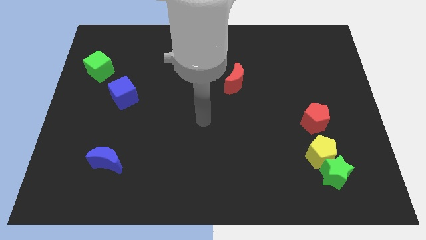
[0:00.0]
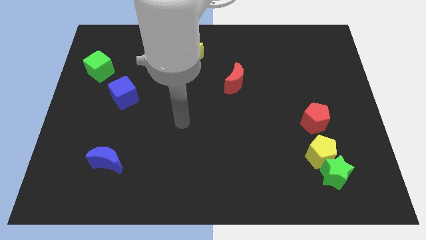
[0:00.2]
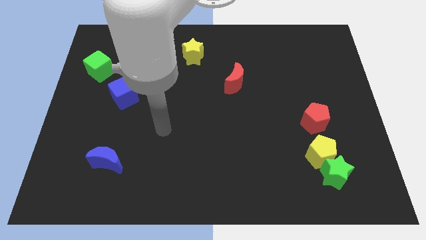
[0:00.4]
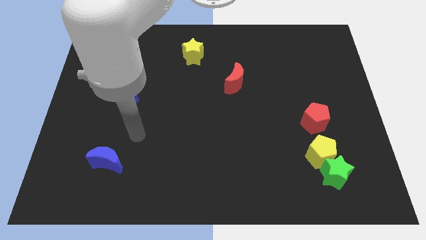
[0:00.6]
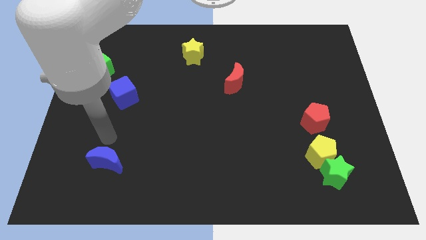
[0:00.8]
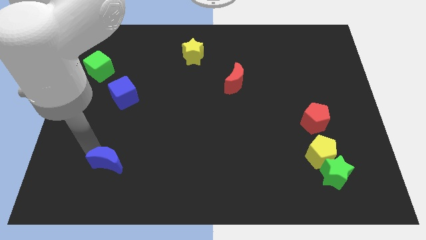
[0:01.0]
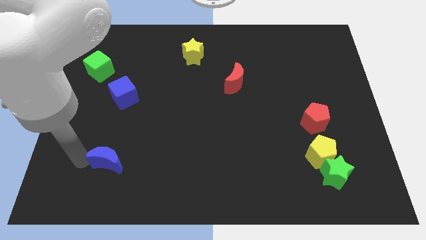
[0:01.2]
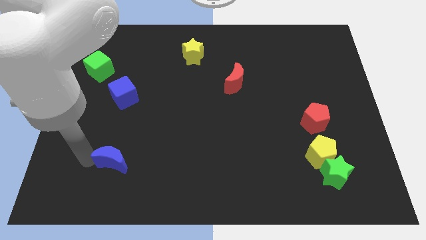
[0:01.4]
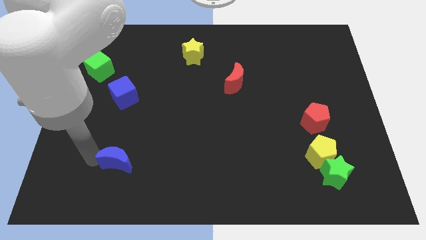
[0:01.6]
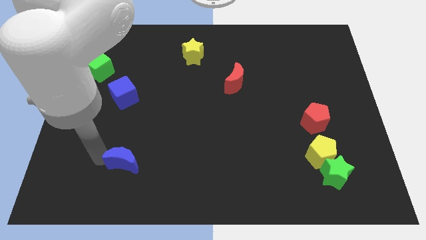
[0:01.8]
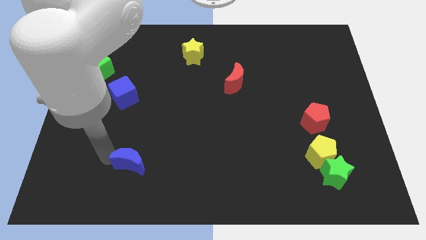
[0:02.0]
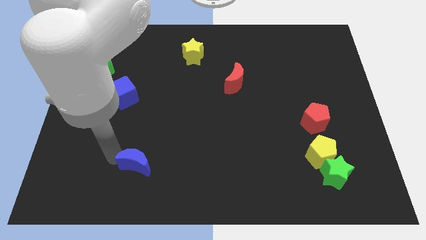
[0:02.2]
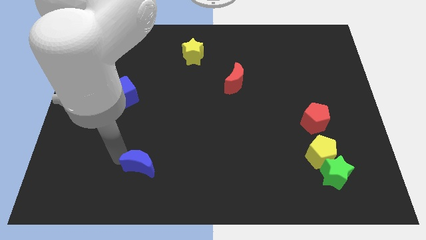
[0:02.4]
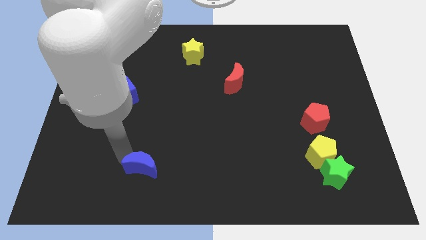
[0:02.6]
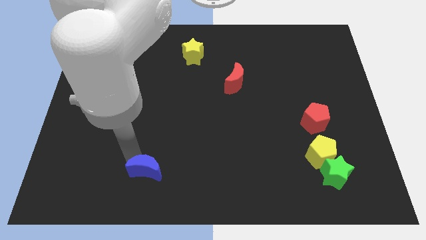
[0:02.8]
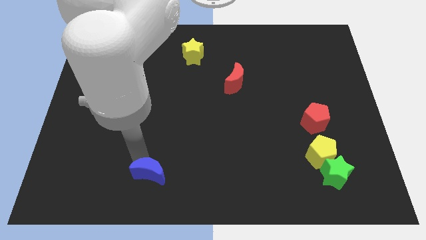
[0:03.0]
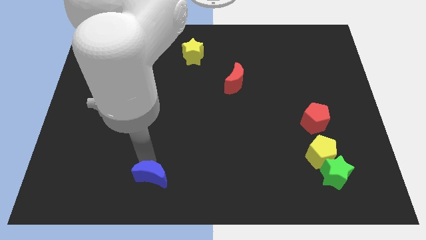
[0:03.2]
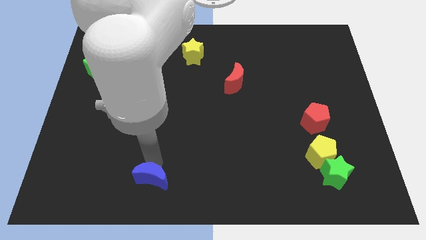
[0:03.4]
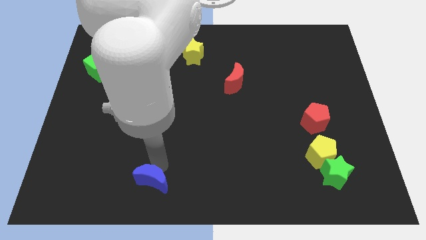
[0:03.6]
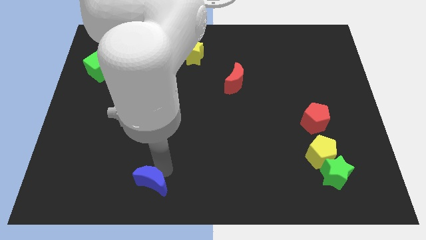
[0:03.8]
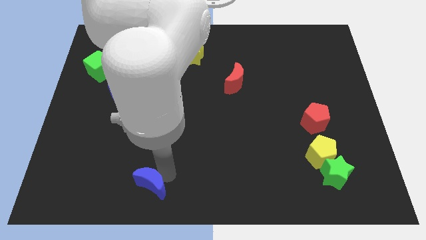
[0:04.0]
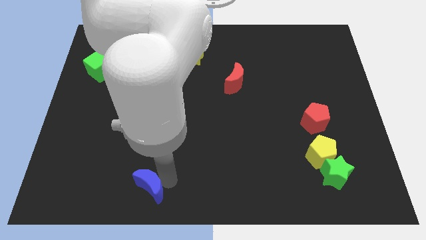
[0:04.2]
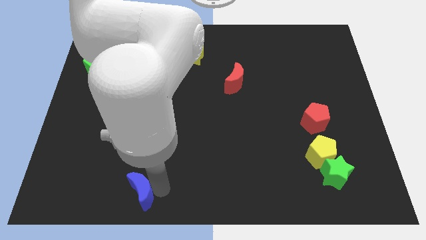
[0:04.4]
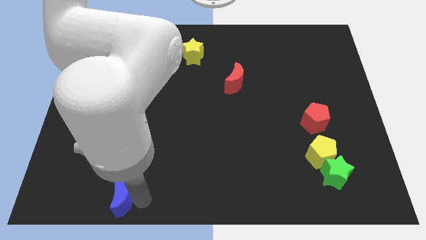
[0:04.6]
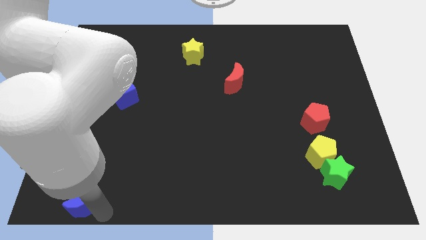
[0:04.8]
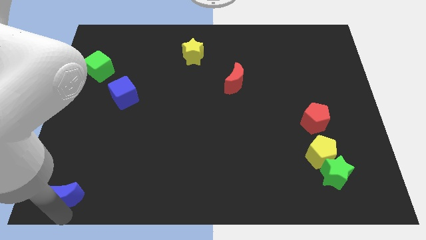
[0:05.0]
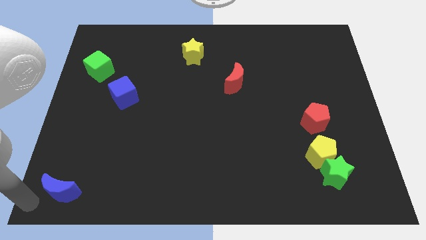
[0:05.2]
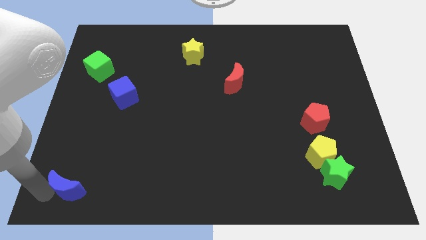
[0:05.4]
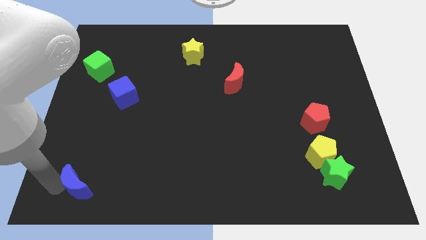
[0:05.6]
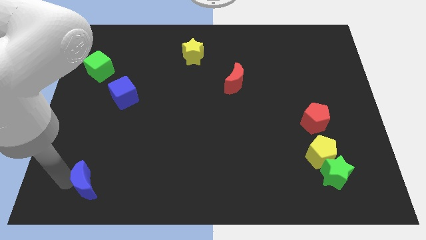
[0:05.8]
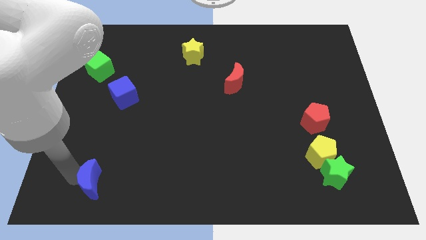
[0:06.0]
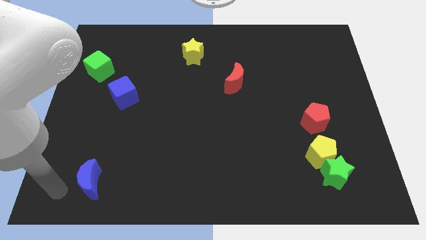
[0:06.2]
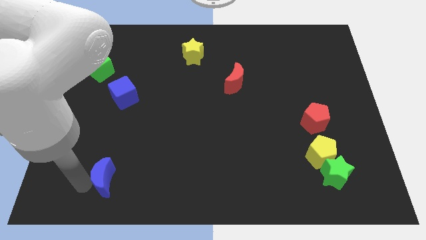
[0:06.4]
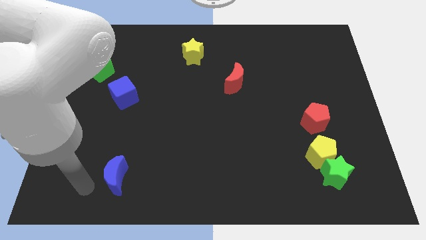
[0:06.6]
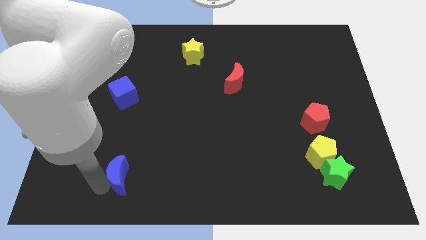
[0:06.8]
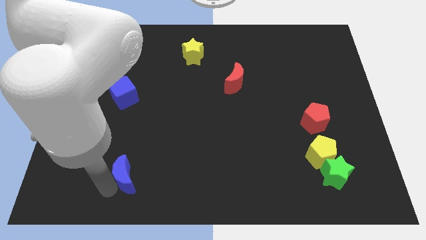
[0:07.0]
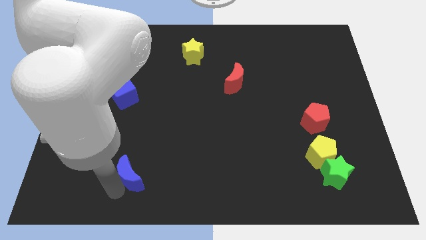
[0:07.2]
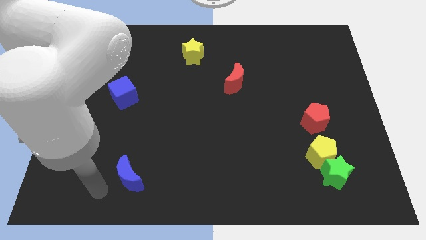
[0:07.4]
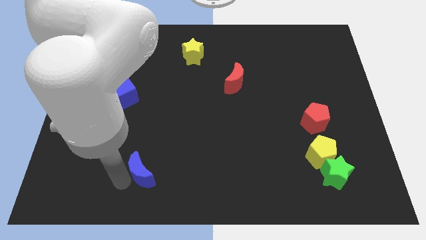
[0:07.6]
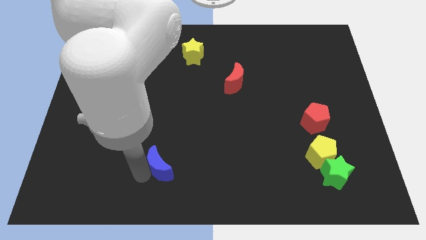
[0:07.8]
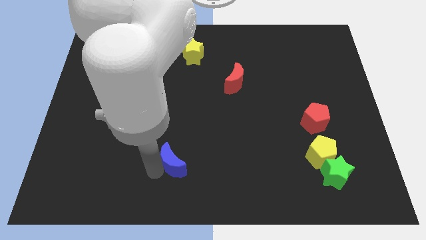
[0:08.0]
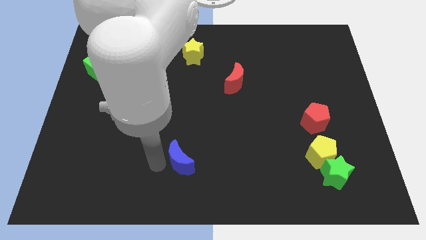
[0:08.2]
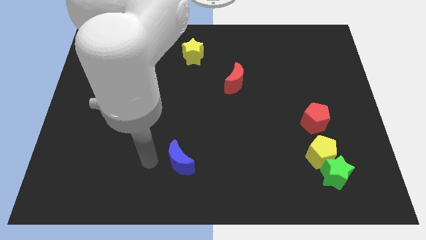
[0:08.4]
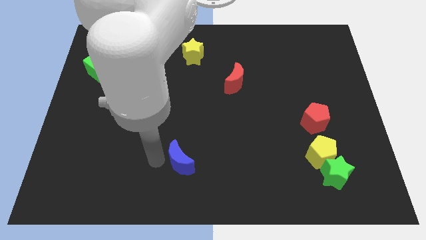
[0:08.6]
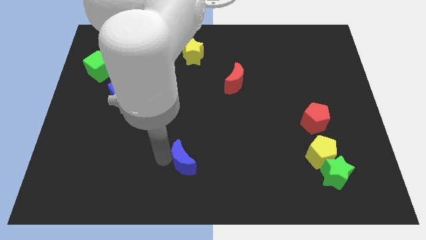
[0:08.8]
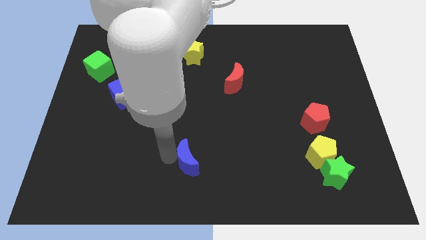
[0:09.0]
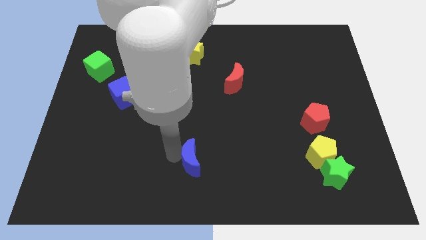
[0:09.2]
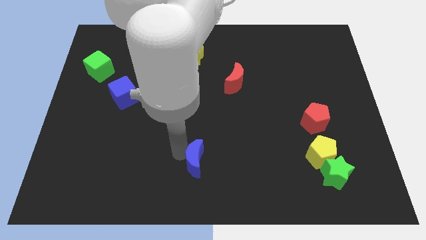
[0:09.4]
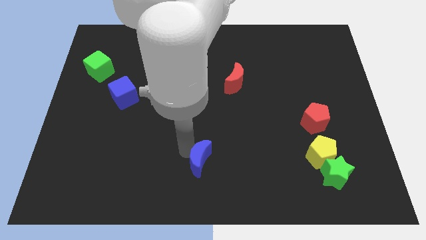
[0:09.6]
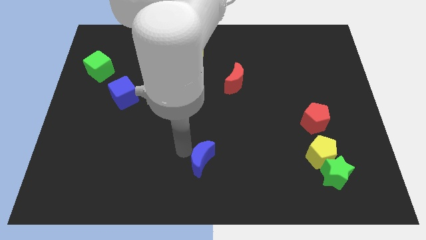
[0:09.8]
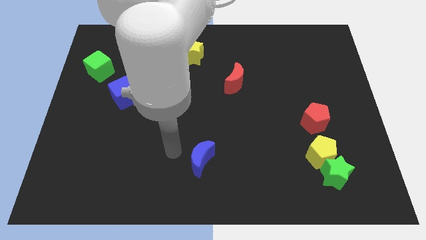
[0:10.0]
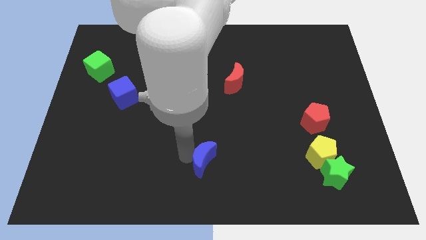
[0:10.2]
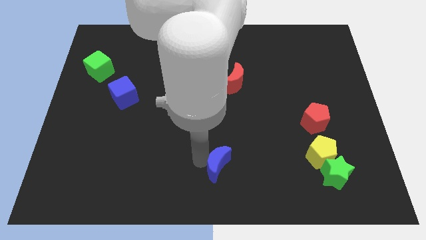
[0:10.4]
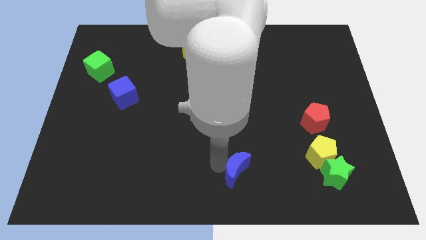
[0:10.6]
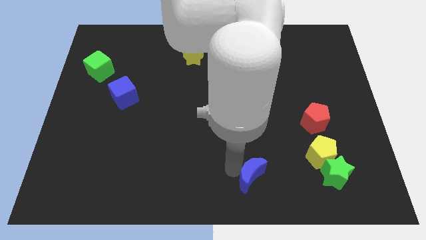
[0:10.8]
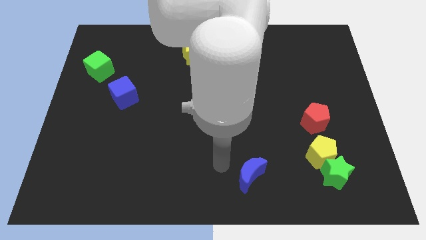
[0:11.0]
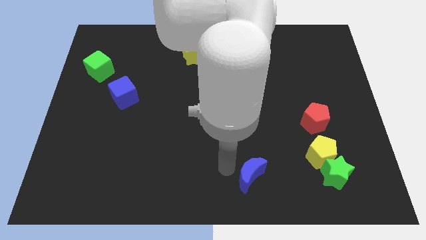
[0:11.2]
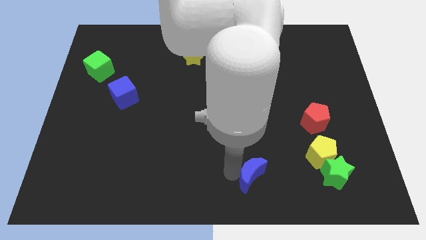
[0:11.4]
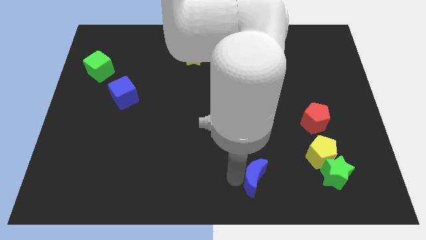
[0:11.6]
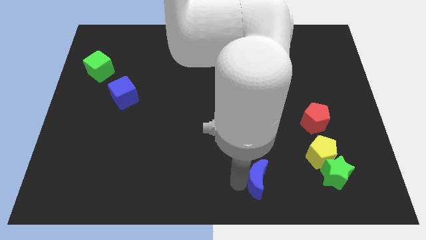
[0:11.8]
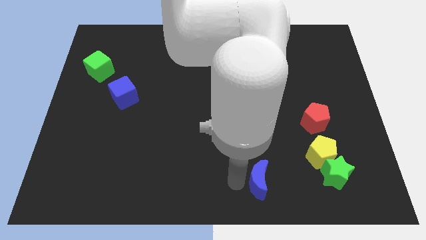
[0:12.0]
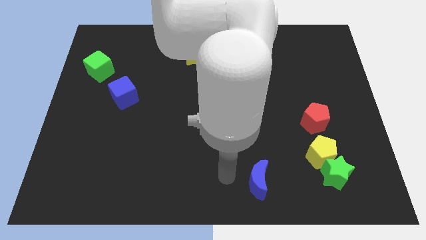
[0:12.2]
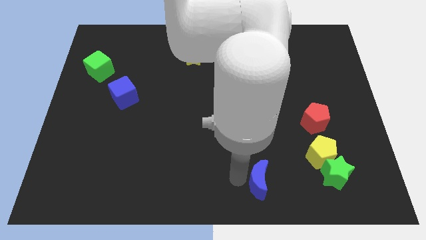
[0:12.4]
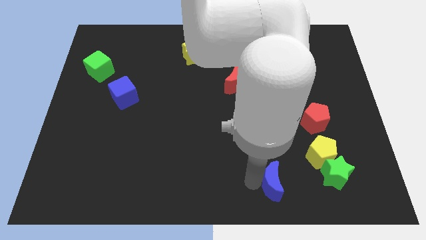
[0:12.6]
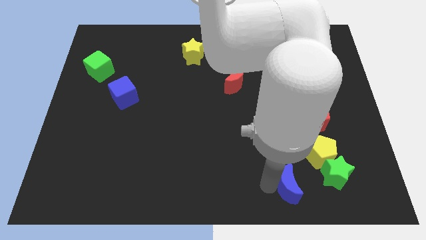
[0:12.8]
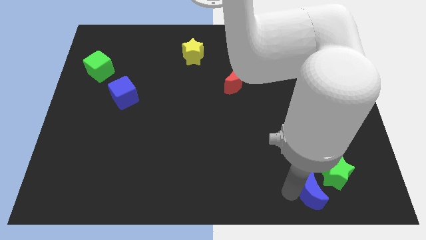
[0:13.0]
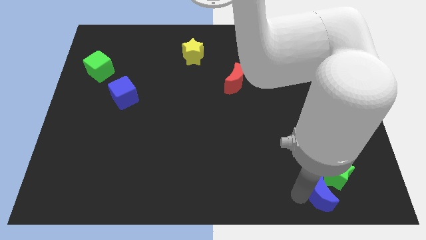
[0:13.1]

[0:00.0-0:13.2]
push the blue moon close to the green star
